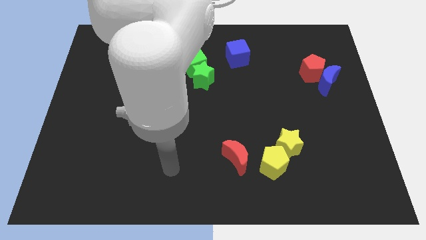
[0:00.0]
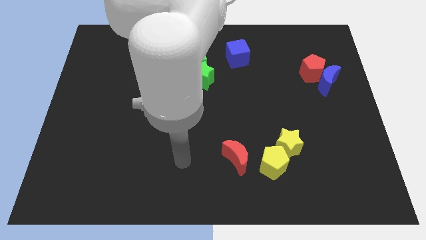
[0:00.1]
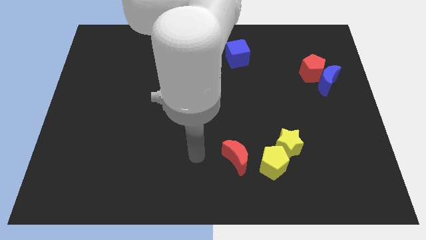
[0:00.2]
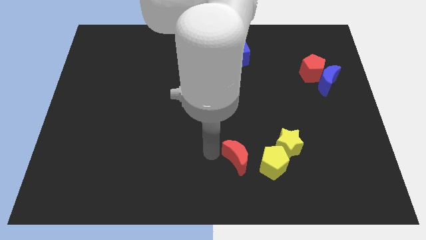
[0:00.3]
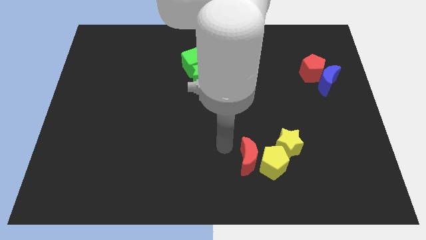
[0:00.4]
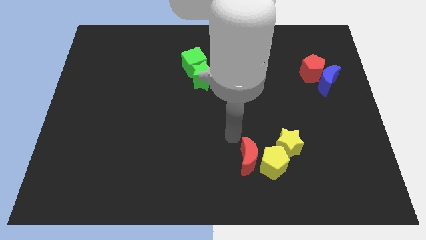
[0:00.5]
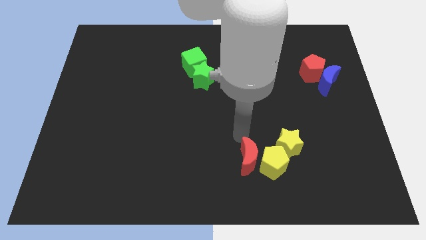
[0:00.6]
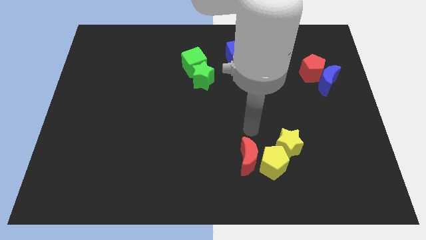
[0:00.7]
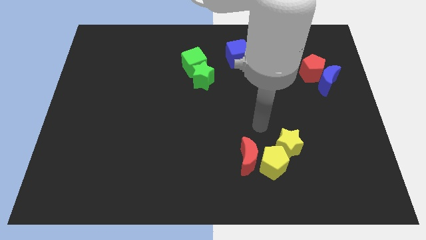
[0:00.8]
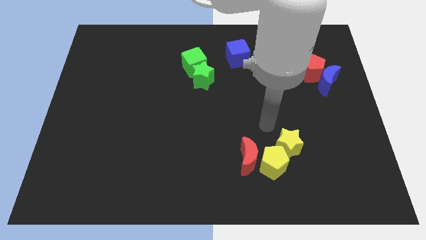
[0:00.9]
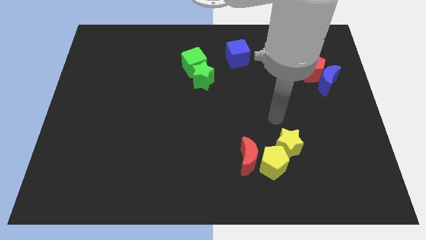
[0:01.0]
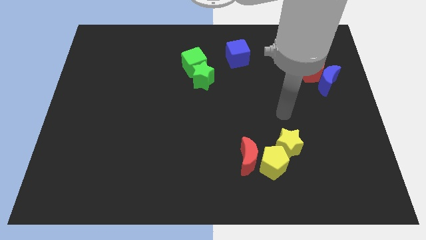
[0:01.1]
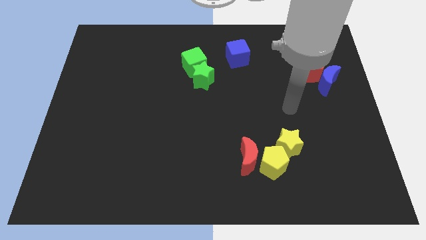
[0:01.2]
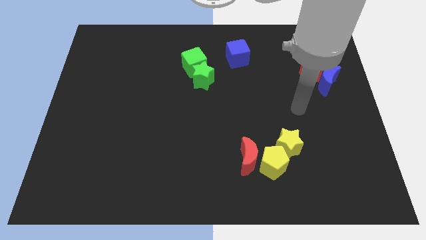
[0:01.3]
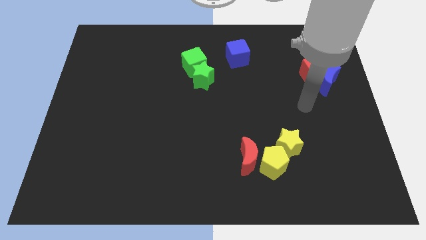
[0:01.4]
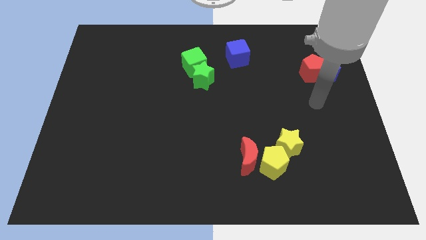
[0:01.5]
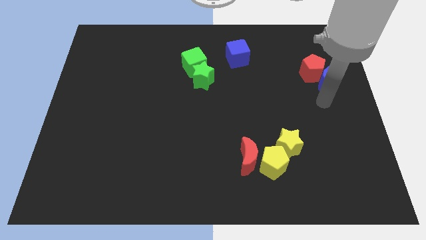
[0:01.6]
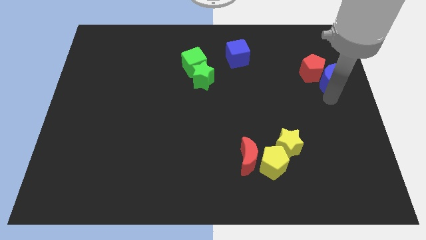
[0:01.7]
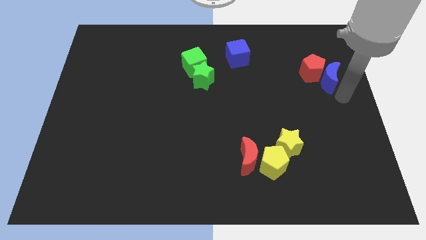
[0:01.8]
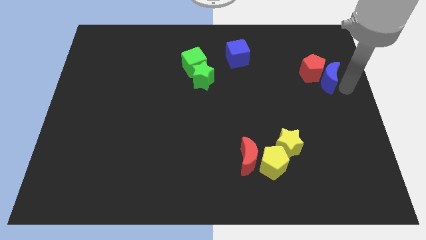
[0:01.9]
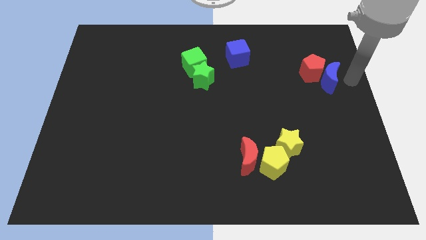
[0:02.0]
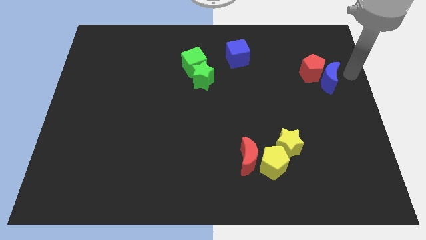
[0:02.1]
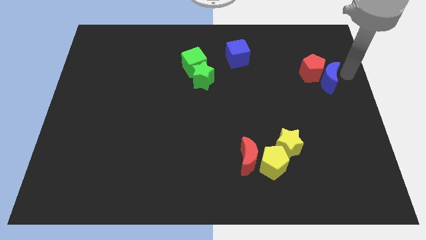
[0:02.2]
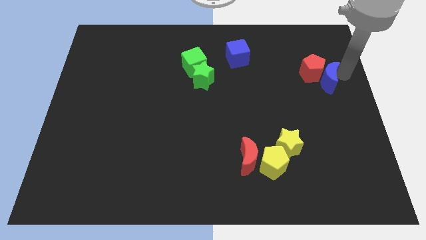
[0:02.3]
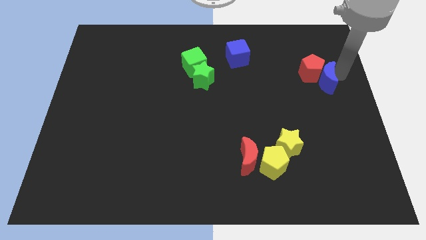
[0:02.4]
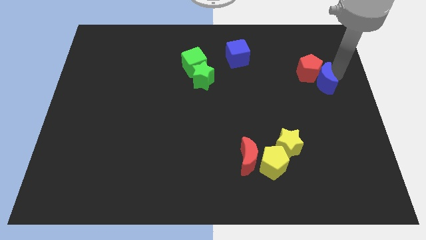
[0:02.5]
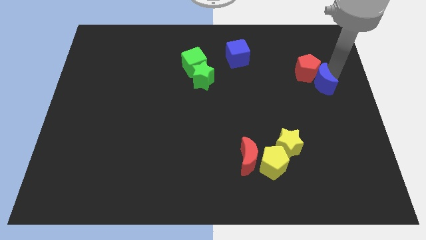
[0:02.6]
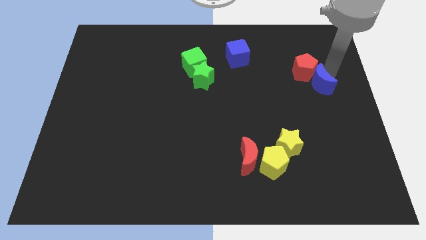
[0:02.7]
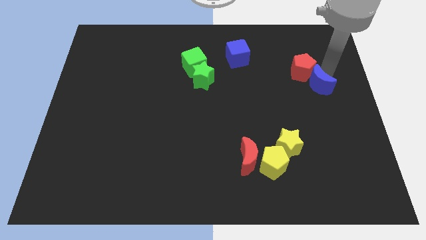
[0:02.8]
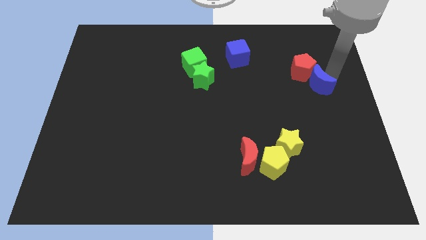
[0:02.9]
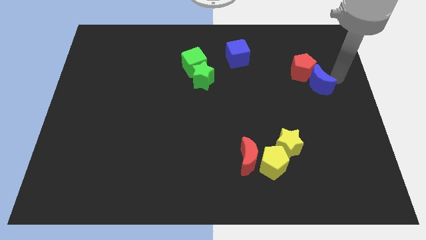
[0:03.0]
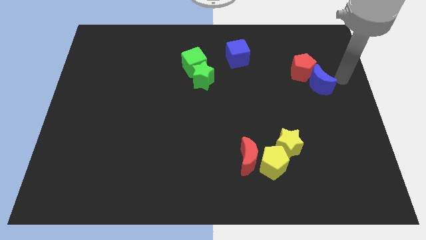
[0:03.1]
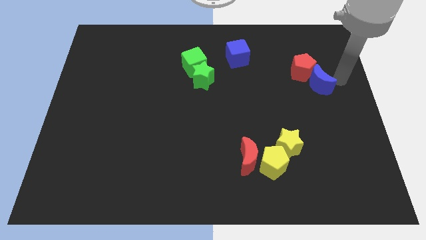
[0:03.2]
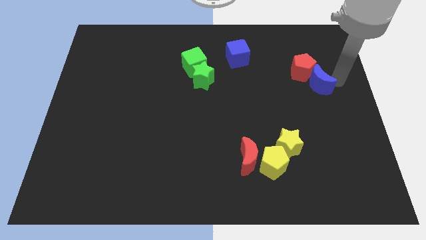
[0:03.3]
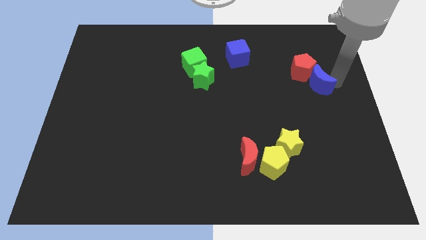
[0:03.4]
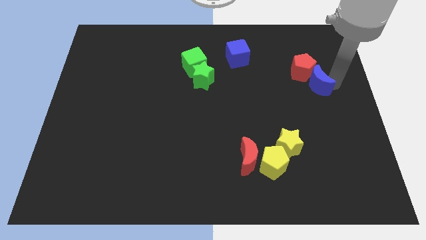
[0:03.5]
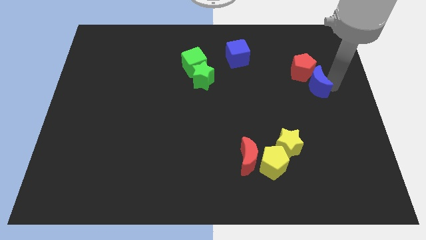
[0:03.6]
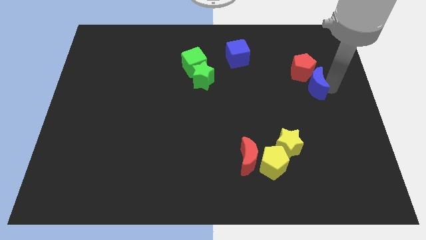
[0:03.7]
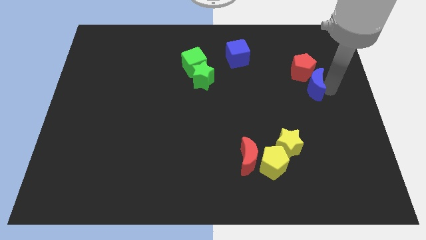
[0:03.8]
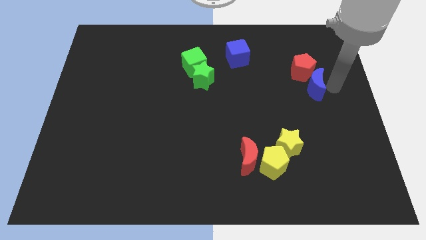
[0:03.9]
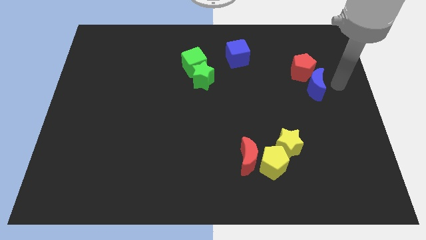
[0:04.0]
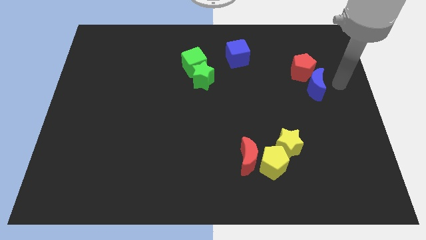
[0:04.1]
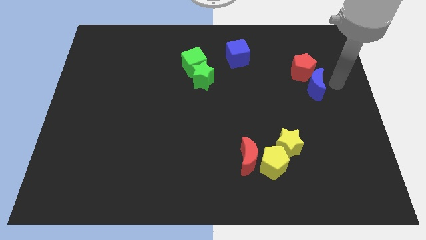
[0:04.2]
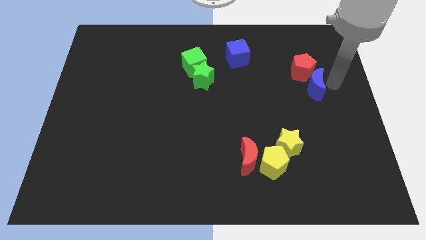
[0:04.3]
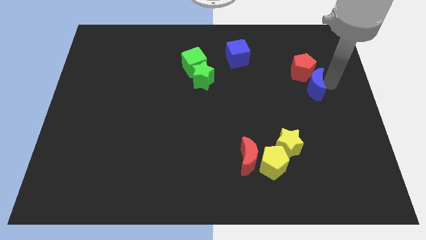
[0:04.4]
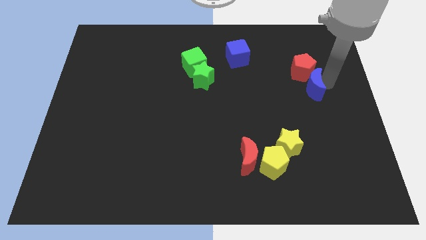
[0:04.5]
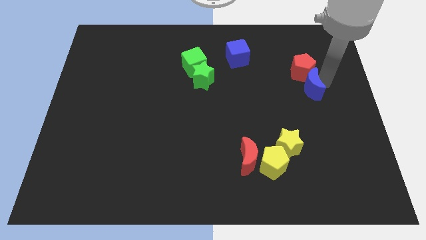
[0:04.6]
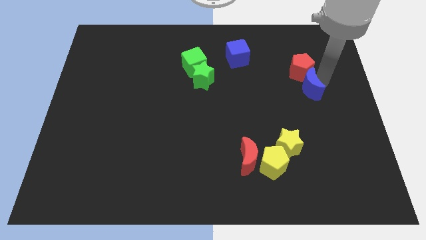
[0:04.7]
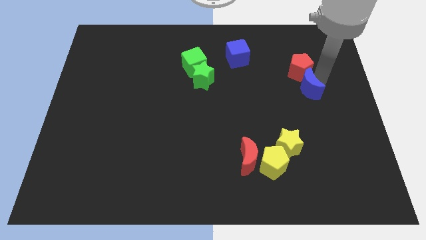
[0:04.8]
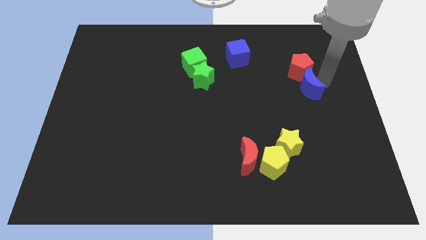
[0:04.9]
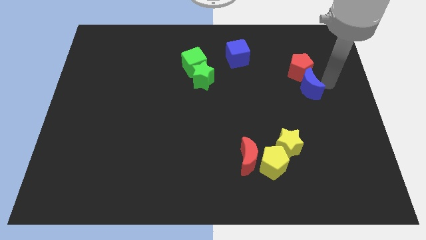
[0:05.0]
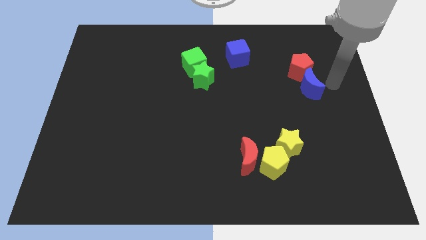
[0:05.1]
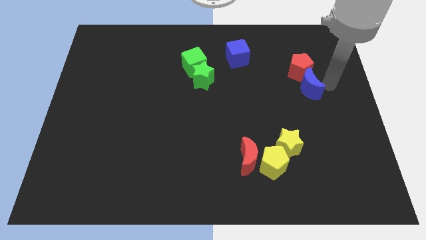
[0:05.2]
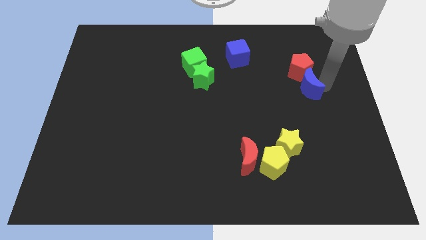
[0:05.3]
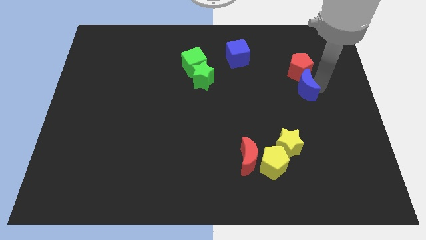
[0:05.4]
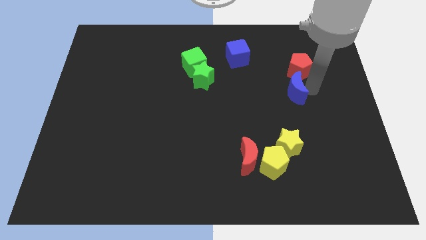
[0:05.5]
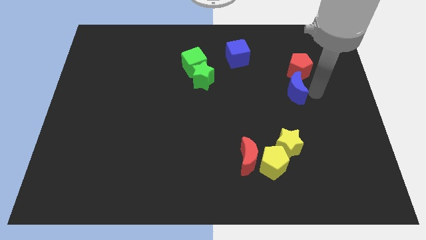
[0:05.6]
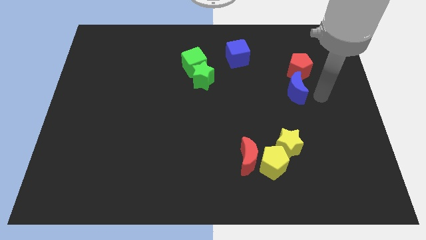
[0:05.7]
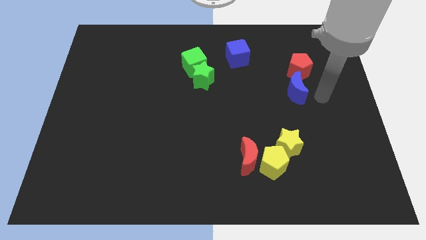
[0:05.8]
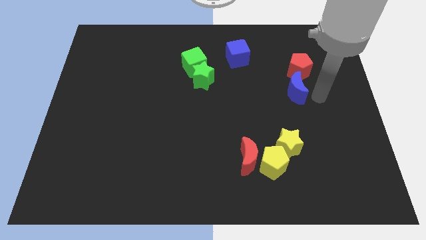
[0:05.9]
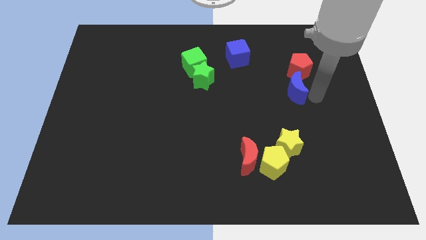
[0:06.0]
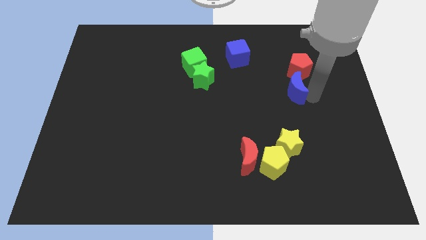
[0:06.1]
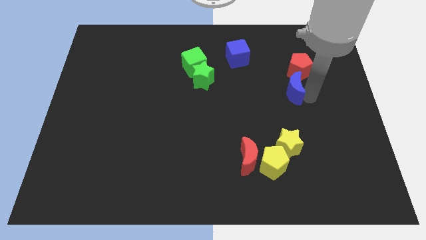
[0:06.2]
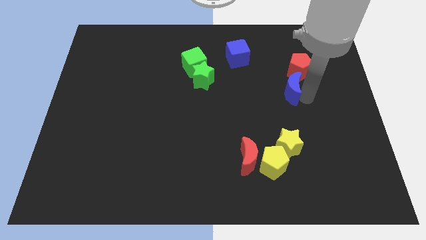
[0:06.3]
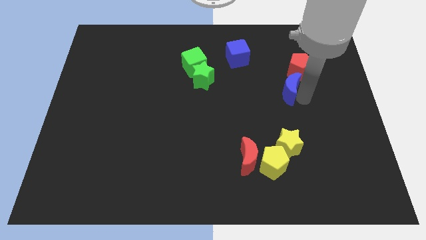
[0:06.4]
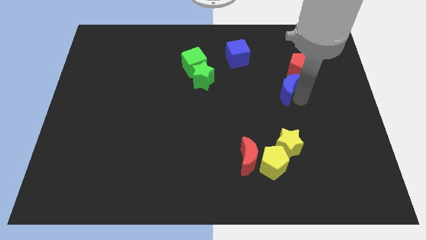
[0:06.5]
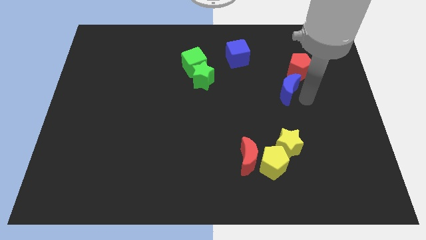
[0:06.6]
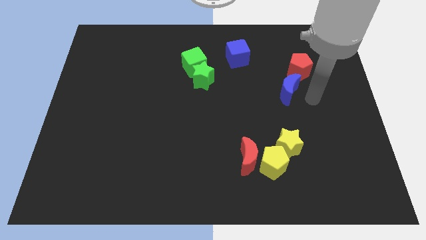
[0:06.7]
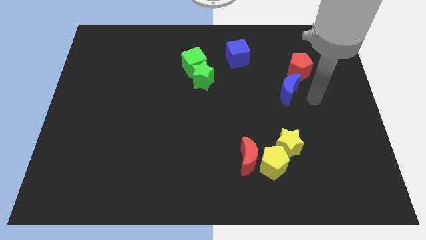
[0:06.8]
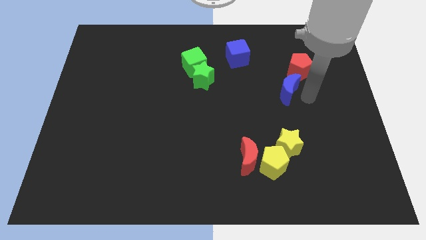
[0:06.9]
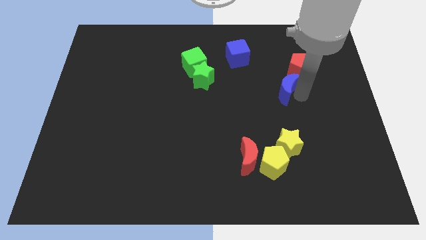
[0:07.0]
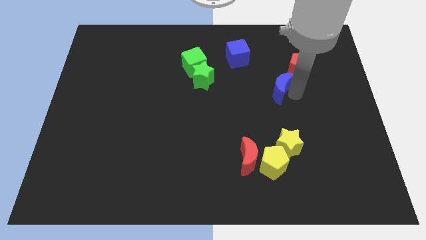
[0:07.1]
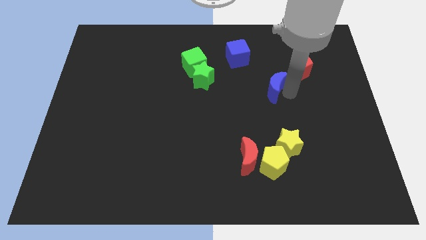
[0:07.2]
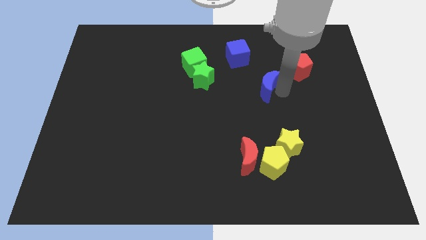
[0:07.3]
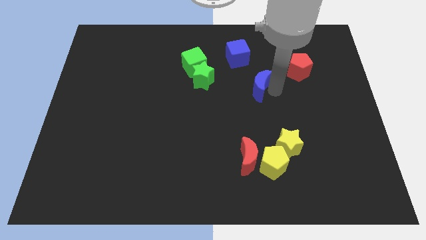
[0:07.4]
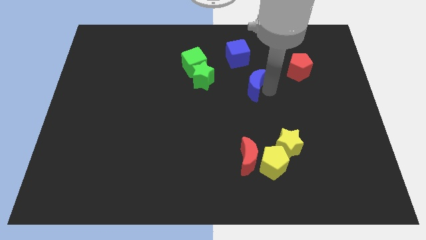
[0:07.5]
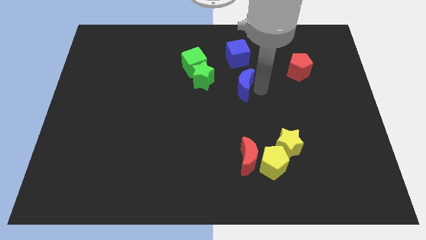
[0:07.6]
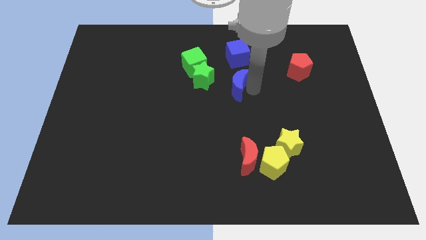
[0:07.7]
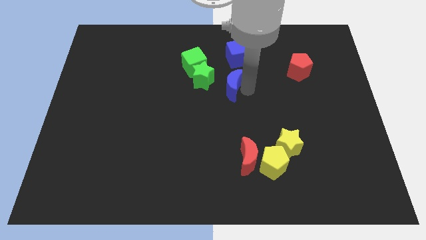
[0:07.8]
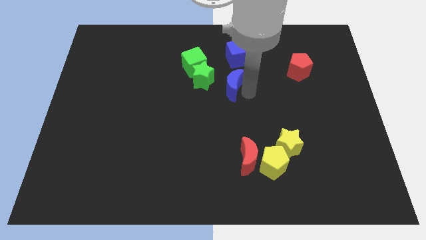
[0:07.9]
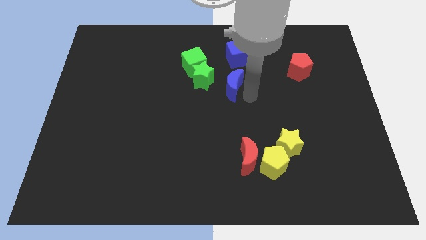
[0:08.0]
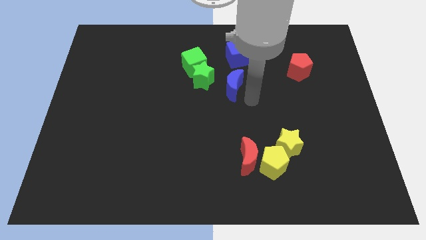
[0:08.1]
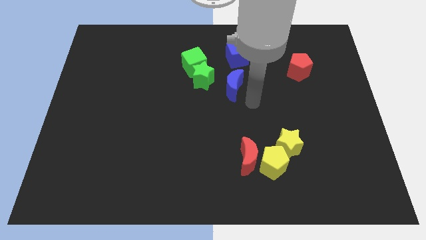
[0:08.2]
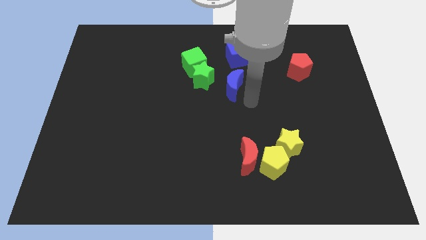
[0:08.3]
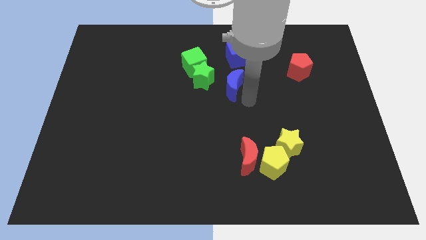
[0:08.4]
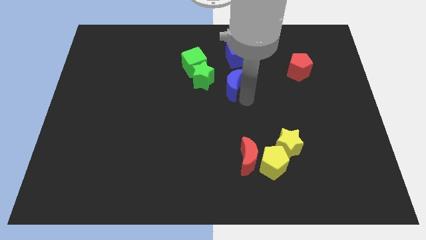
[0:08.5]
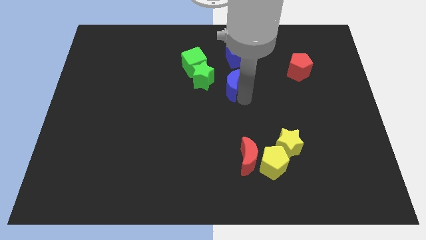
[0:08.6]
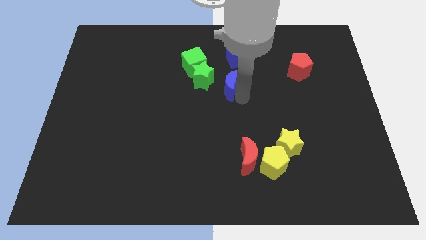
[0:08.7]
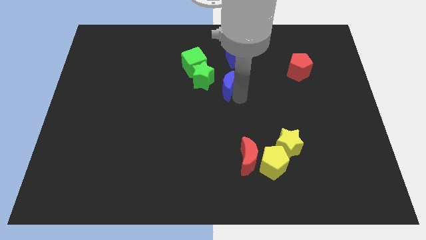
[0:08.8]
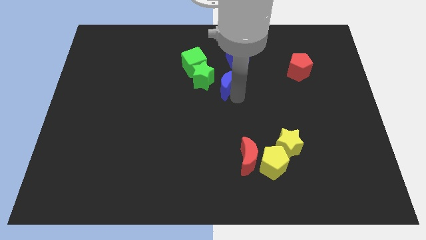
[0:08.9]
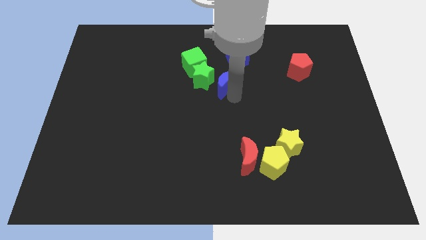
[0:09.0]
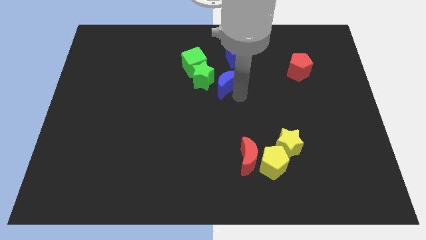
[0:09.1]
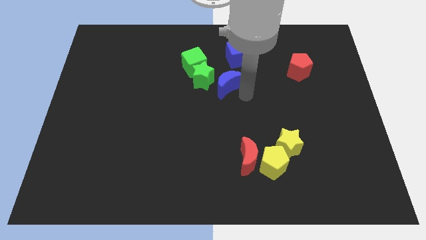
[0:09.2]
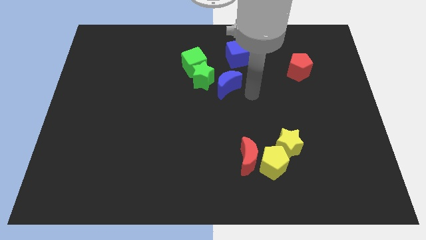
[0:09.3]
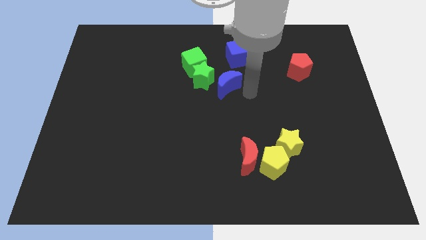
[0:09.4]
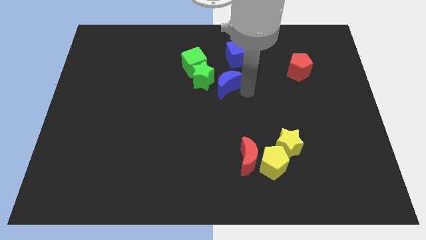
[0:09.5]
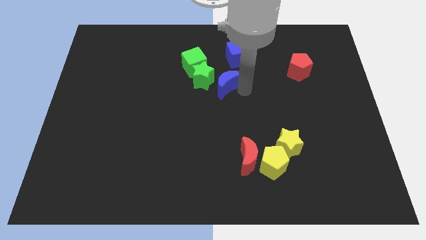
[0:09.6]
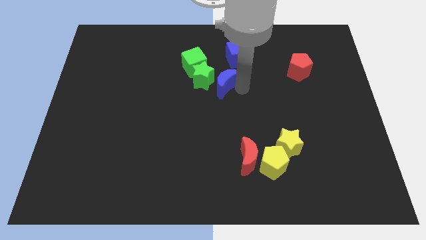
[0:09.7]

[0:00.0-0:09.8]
put the blue moon next to the green star
